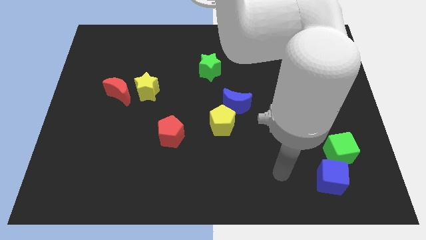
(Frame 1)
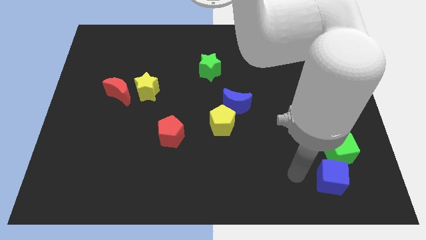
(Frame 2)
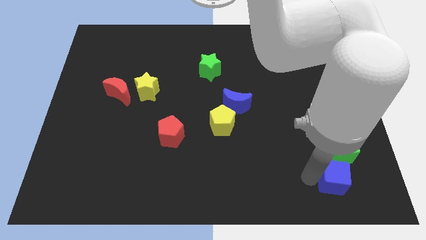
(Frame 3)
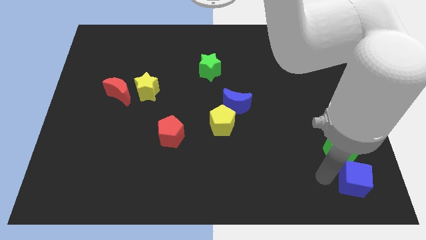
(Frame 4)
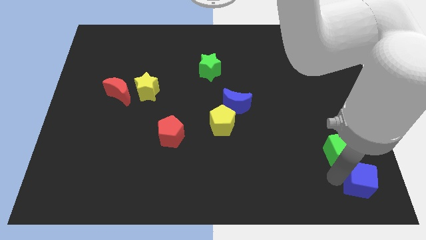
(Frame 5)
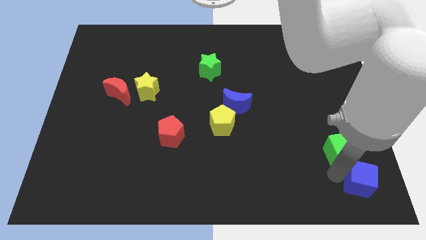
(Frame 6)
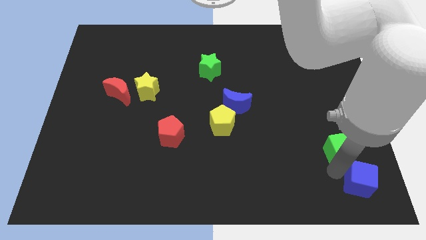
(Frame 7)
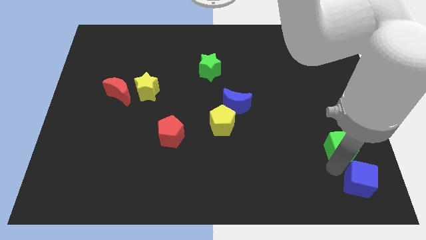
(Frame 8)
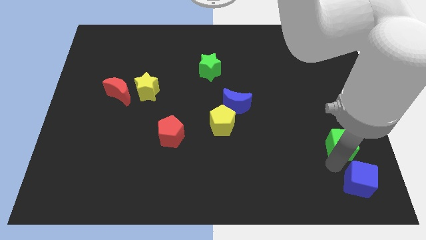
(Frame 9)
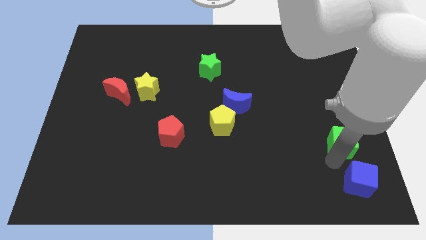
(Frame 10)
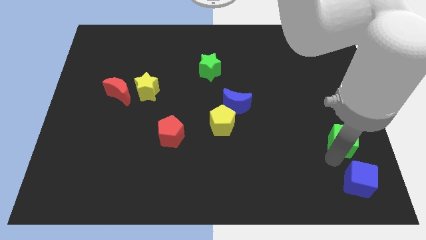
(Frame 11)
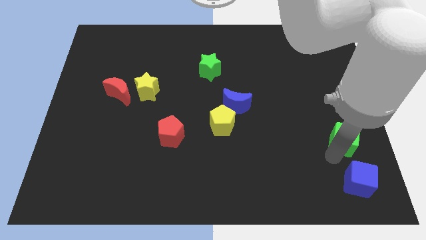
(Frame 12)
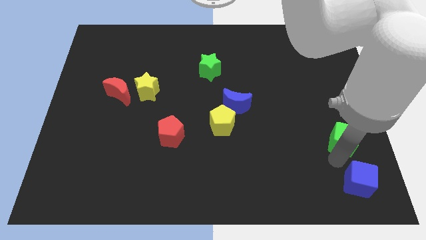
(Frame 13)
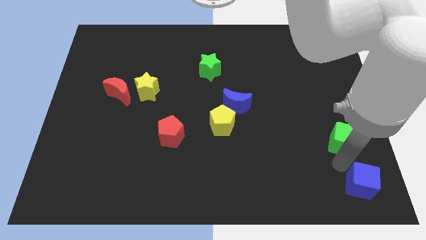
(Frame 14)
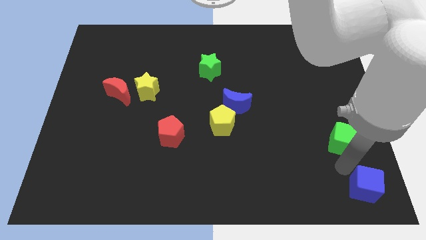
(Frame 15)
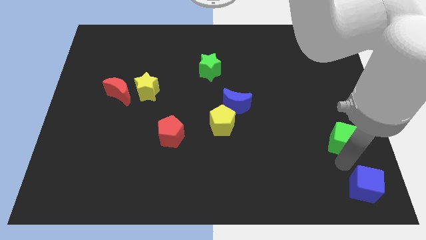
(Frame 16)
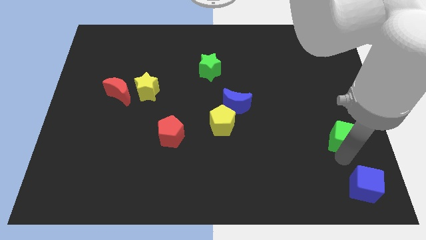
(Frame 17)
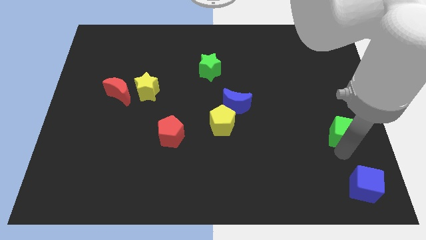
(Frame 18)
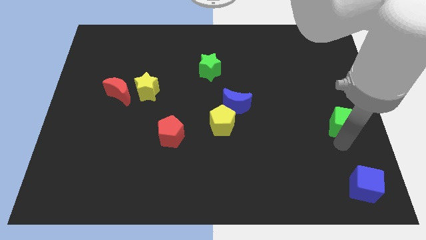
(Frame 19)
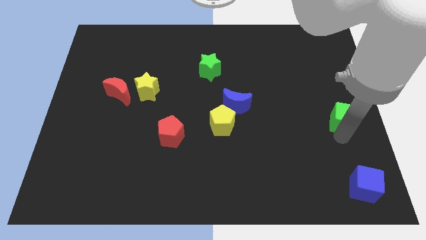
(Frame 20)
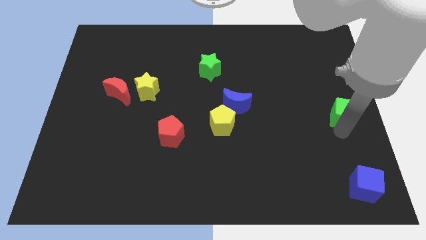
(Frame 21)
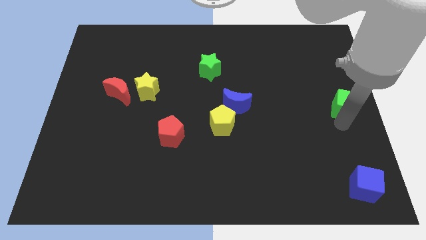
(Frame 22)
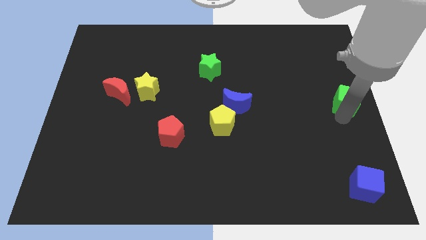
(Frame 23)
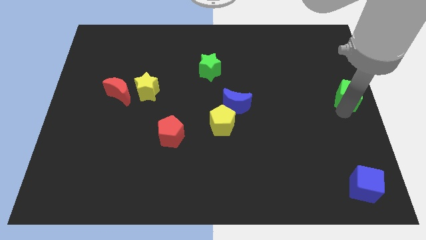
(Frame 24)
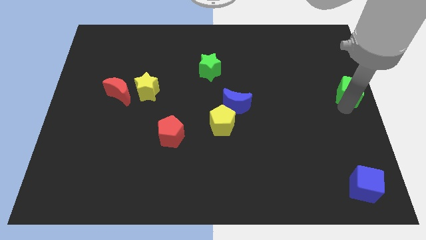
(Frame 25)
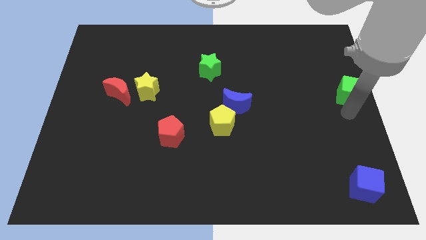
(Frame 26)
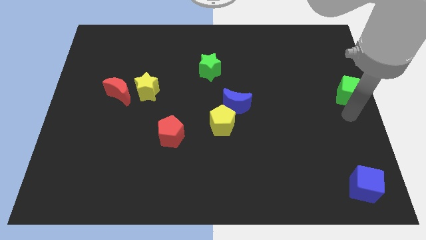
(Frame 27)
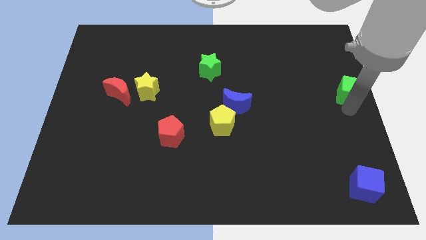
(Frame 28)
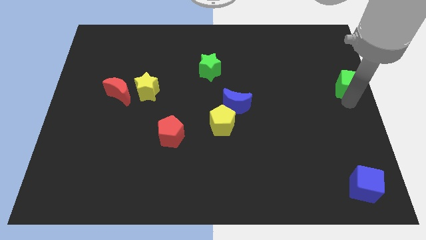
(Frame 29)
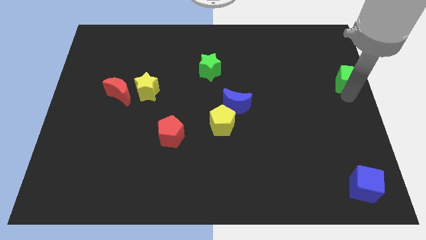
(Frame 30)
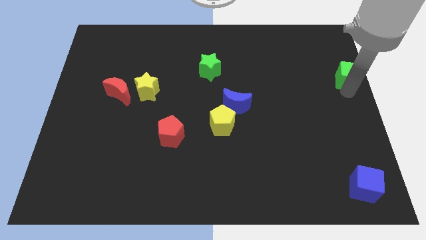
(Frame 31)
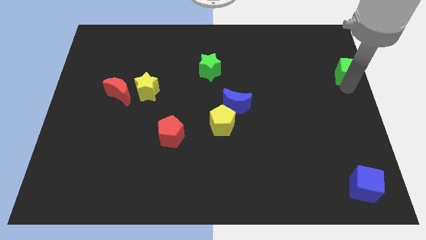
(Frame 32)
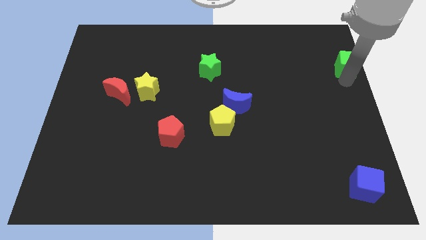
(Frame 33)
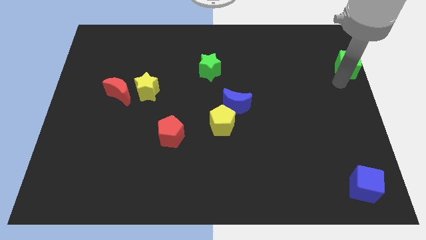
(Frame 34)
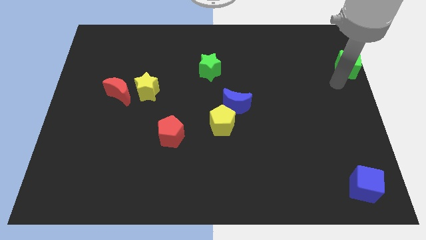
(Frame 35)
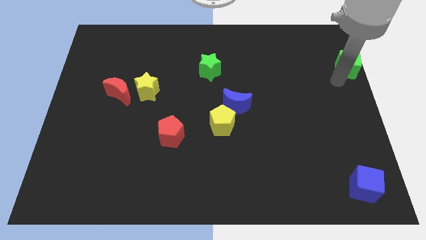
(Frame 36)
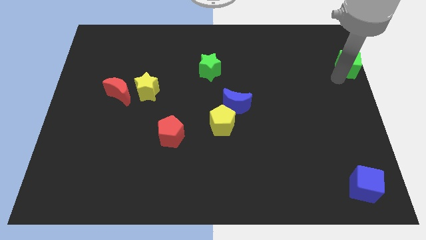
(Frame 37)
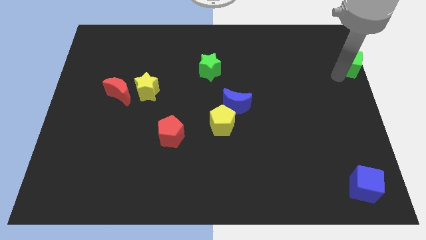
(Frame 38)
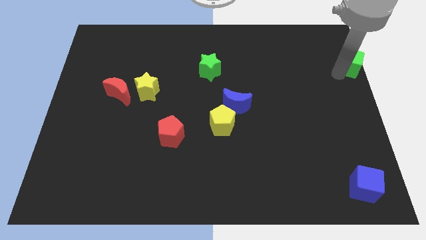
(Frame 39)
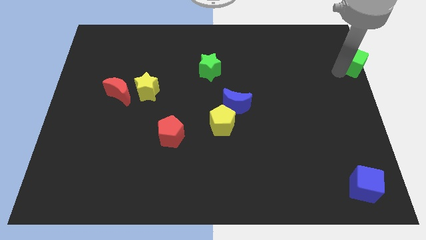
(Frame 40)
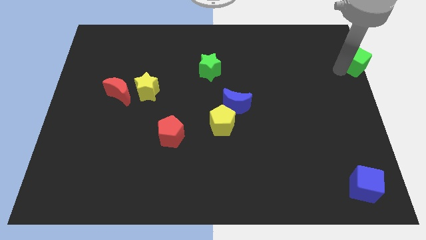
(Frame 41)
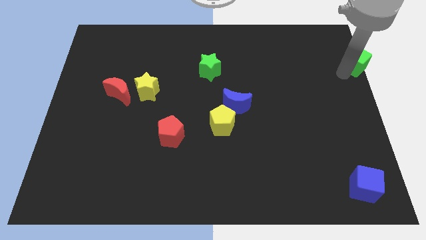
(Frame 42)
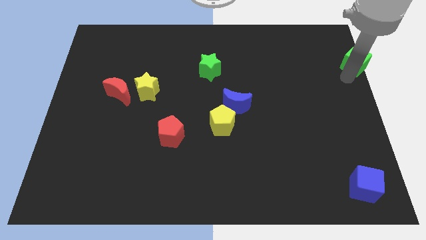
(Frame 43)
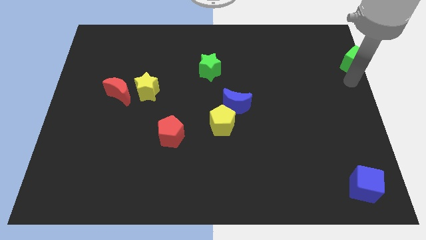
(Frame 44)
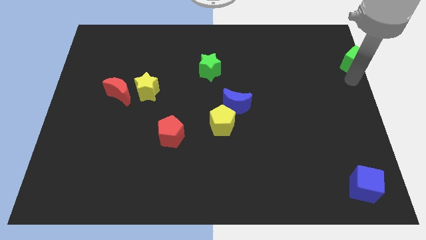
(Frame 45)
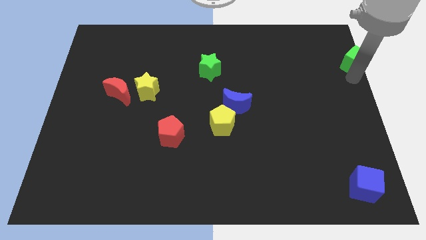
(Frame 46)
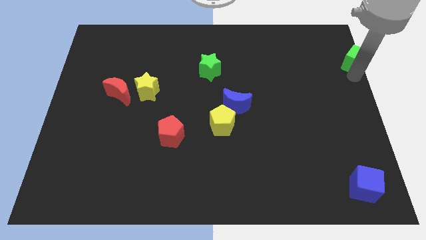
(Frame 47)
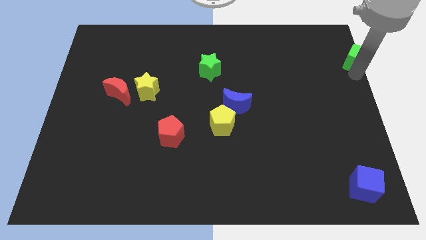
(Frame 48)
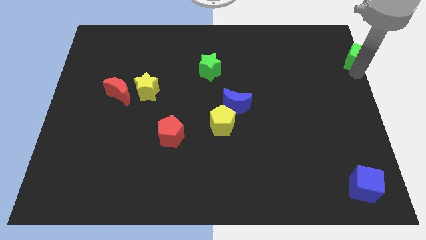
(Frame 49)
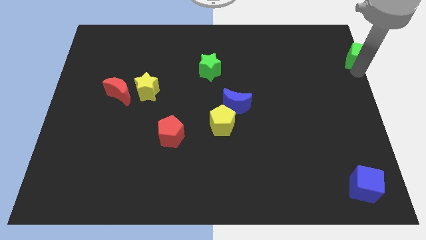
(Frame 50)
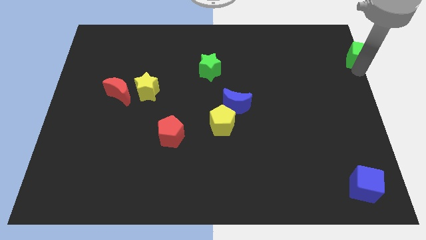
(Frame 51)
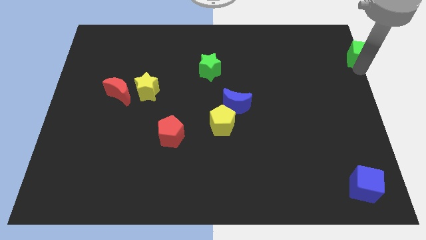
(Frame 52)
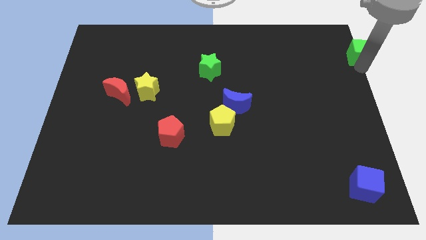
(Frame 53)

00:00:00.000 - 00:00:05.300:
slide the green cube to the top right
